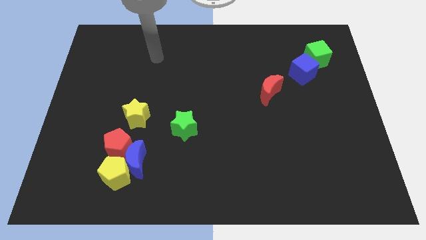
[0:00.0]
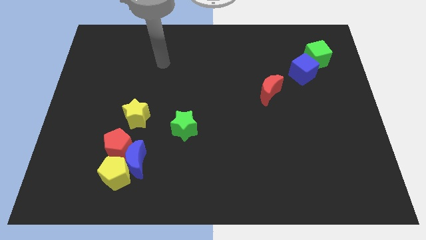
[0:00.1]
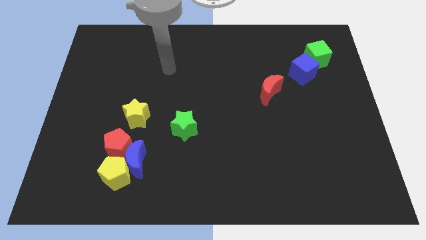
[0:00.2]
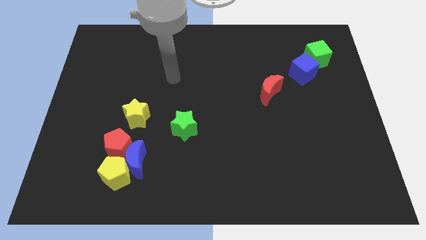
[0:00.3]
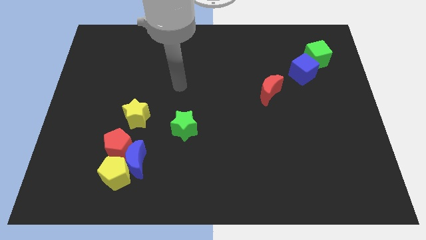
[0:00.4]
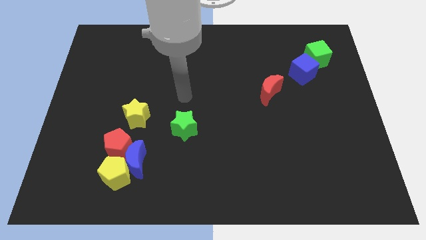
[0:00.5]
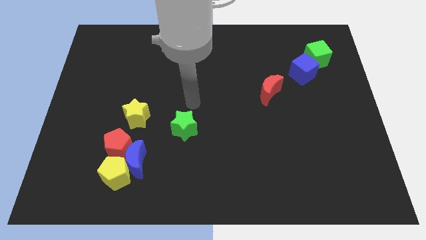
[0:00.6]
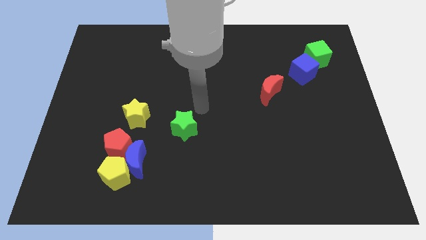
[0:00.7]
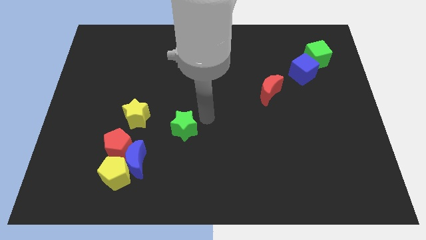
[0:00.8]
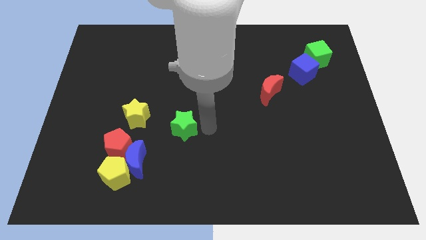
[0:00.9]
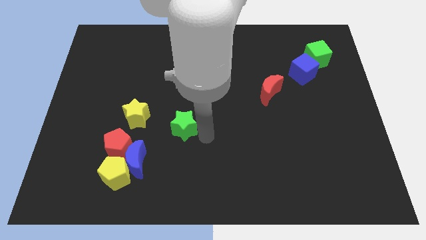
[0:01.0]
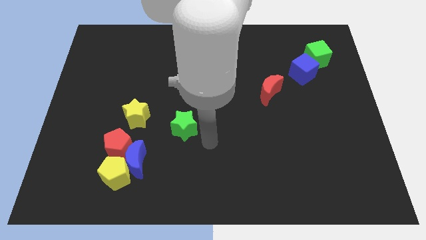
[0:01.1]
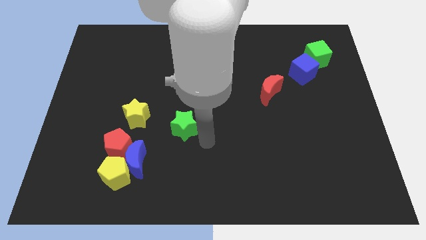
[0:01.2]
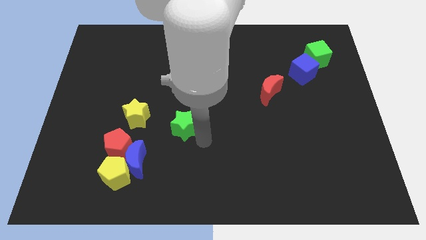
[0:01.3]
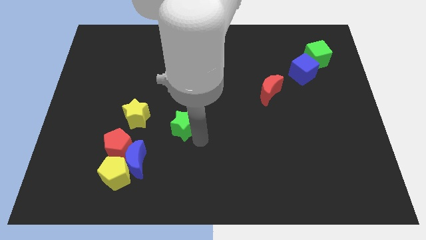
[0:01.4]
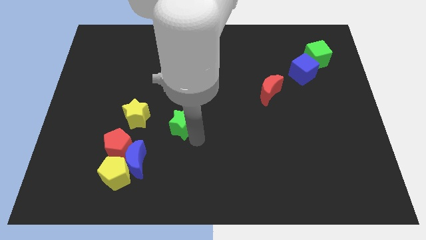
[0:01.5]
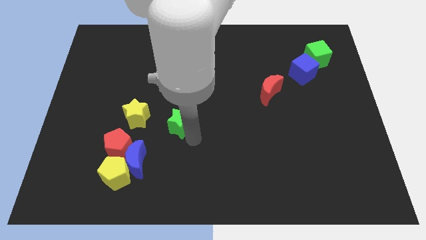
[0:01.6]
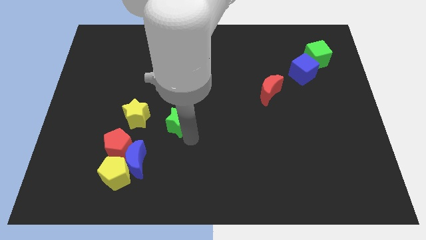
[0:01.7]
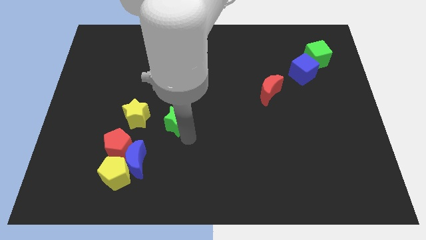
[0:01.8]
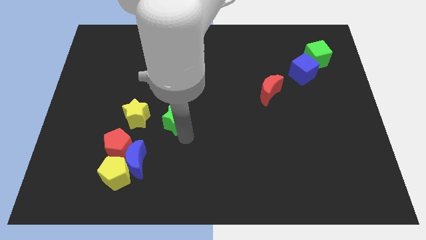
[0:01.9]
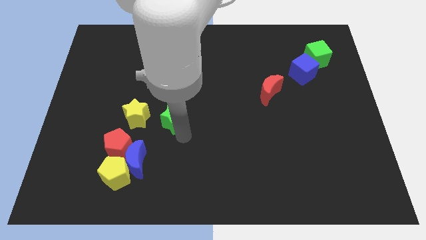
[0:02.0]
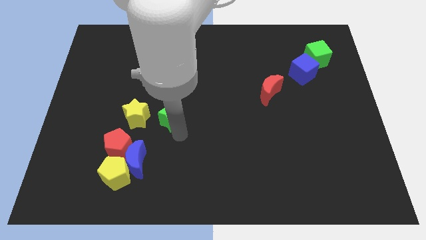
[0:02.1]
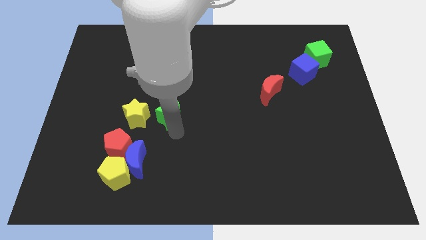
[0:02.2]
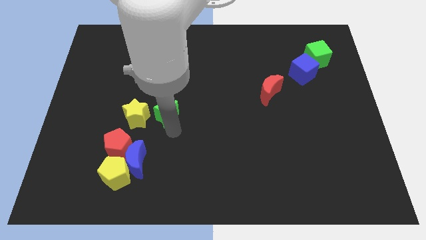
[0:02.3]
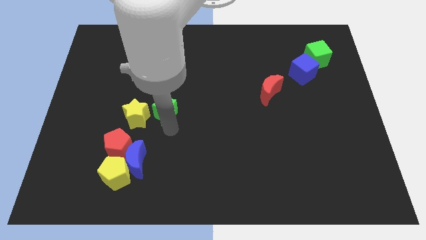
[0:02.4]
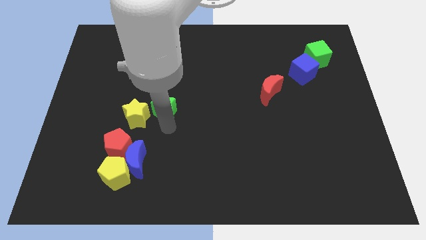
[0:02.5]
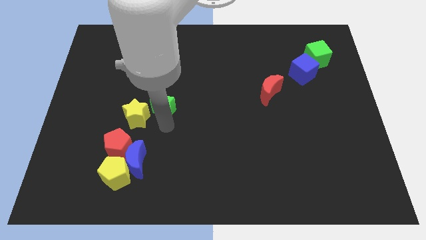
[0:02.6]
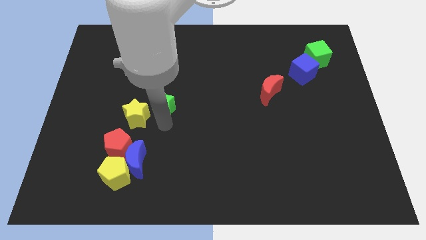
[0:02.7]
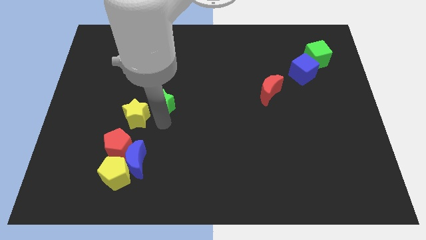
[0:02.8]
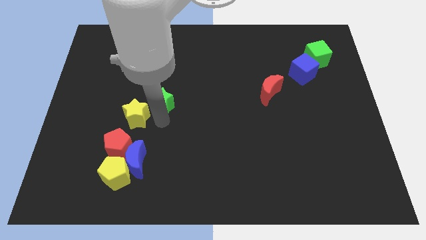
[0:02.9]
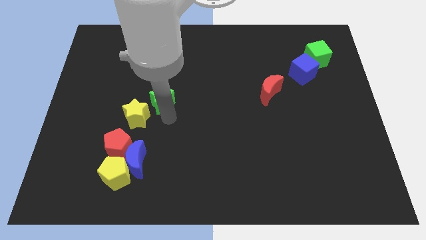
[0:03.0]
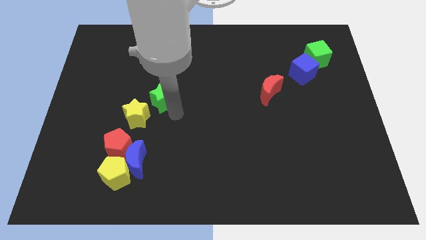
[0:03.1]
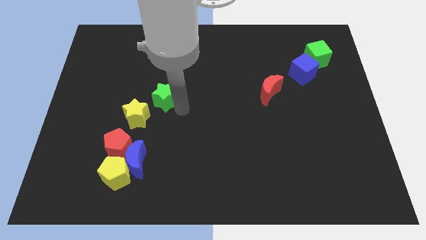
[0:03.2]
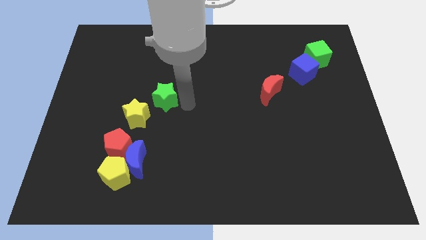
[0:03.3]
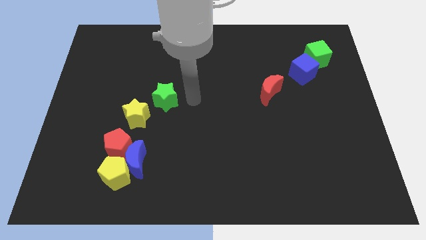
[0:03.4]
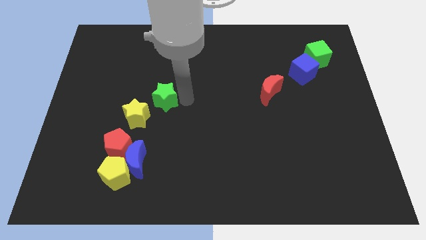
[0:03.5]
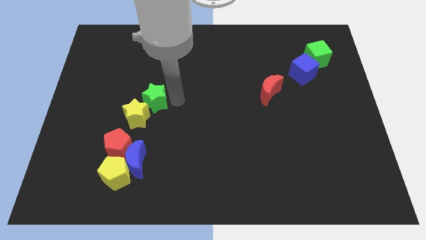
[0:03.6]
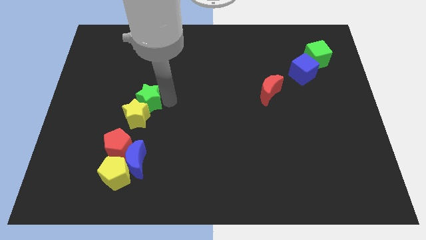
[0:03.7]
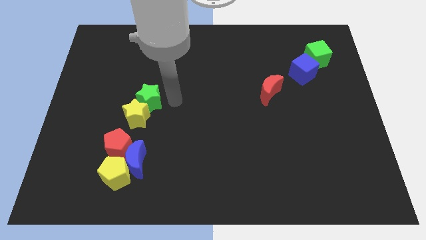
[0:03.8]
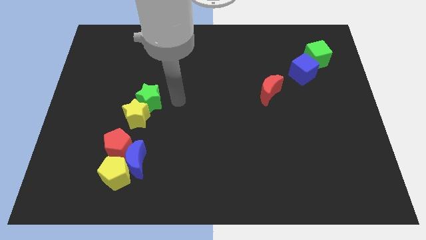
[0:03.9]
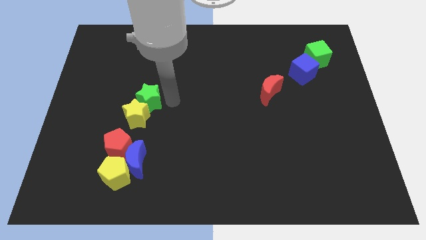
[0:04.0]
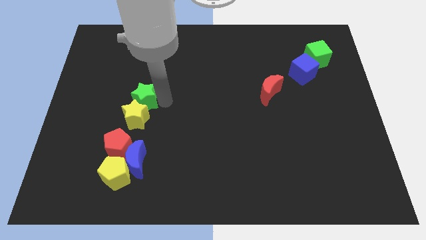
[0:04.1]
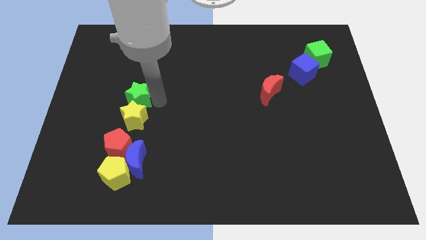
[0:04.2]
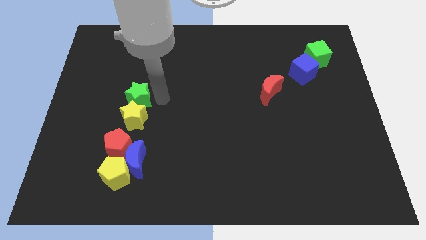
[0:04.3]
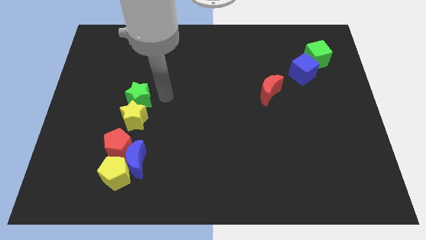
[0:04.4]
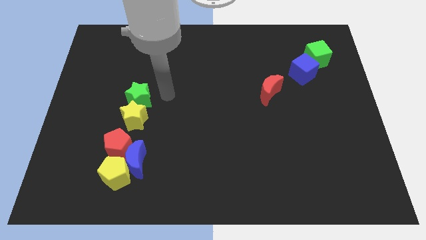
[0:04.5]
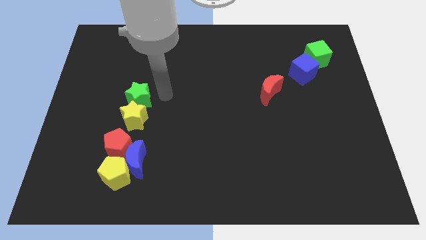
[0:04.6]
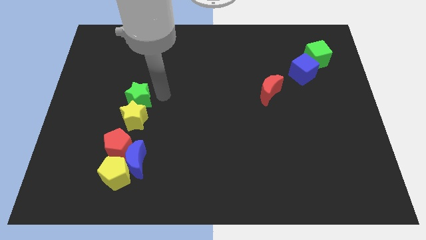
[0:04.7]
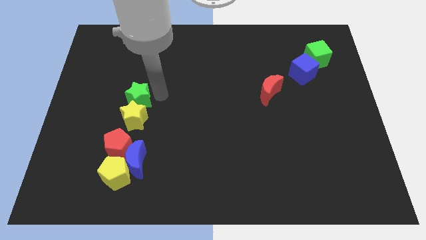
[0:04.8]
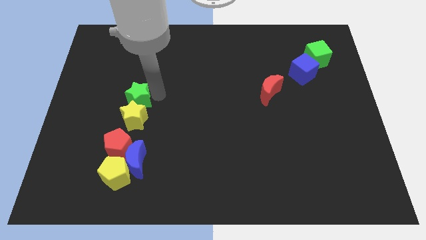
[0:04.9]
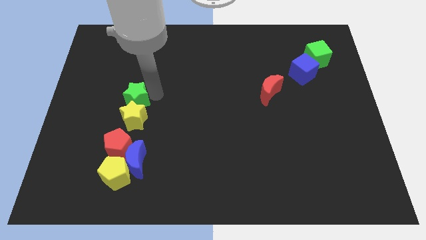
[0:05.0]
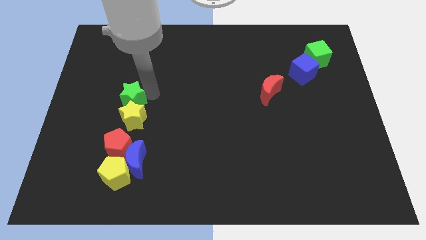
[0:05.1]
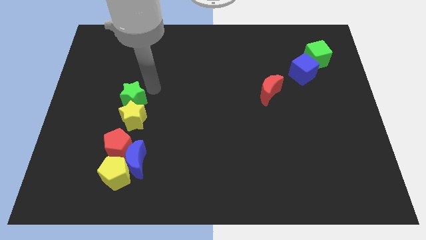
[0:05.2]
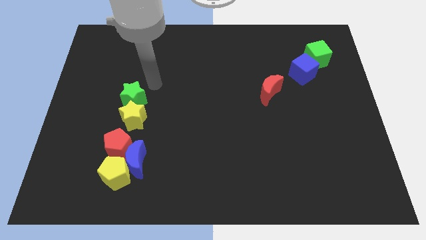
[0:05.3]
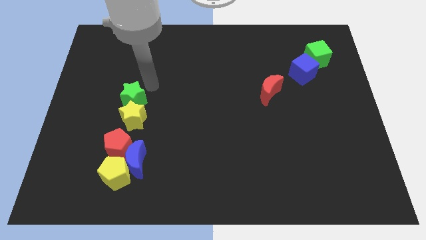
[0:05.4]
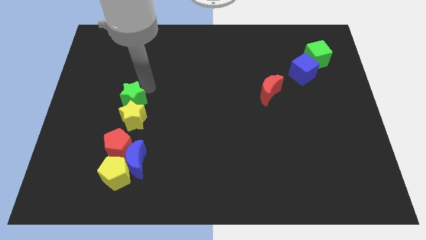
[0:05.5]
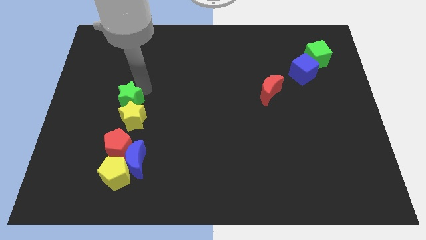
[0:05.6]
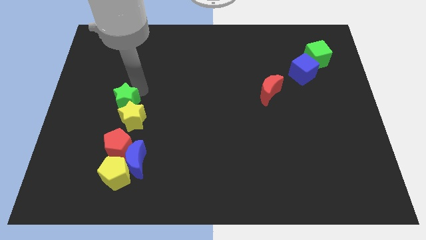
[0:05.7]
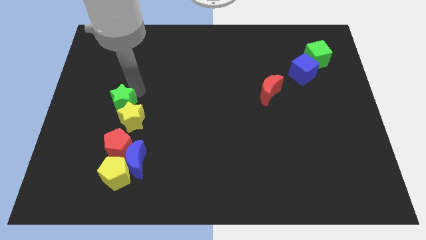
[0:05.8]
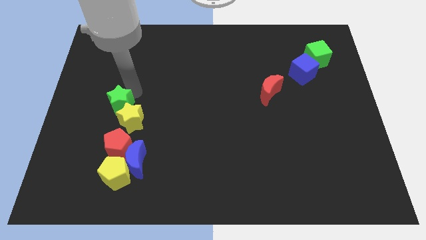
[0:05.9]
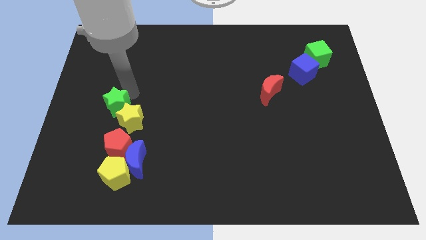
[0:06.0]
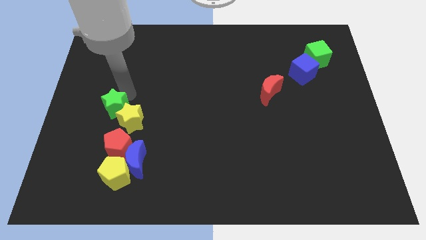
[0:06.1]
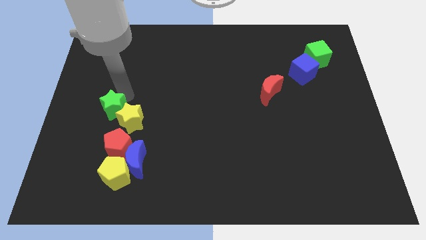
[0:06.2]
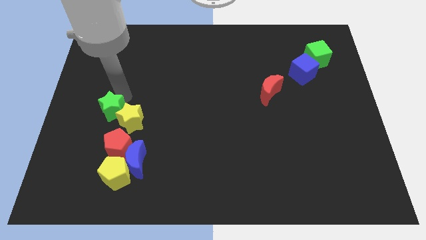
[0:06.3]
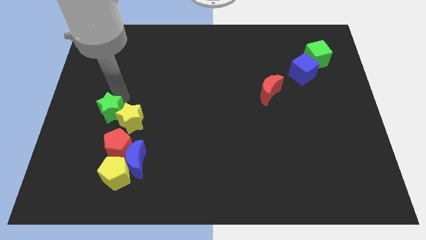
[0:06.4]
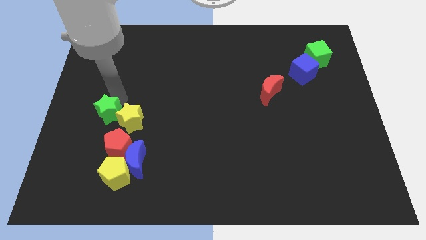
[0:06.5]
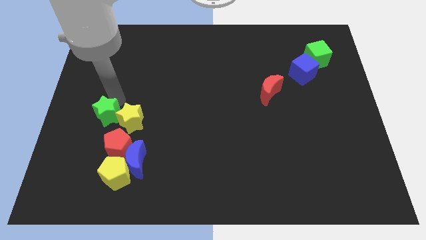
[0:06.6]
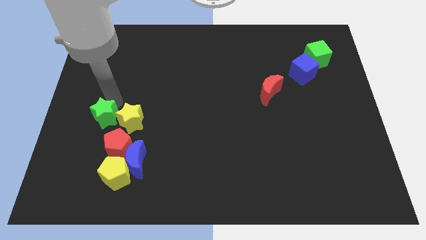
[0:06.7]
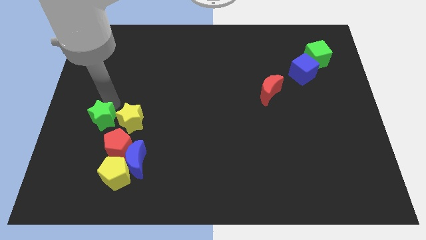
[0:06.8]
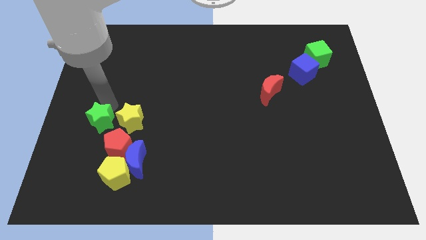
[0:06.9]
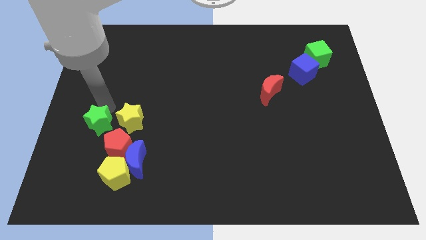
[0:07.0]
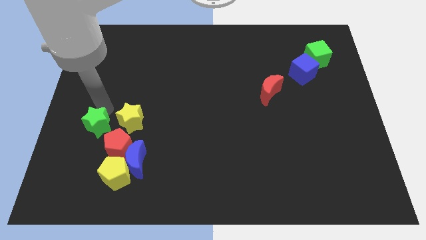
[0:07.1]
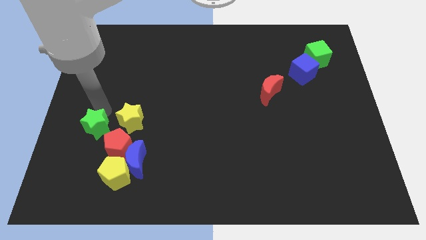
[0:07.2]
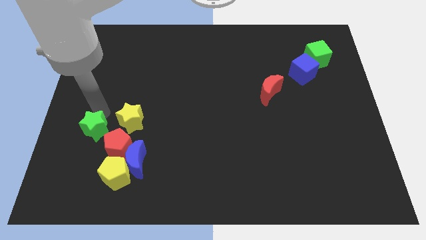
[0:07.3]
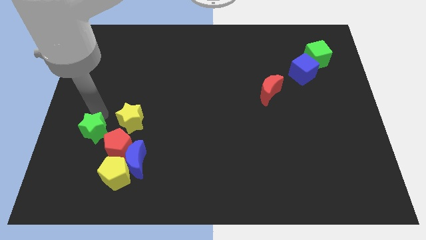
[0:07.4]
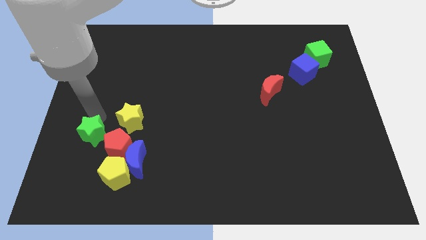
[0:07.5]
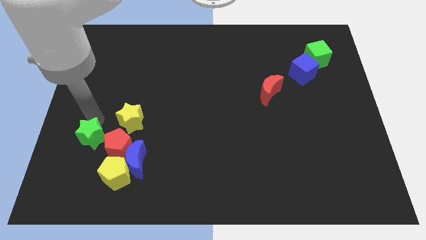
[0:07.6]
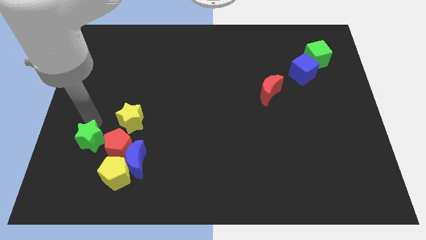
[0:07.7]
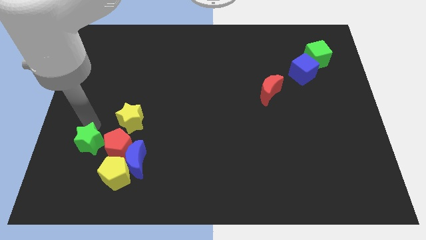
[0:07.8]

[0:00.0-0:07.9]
slide the green star just left of the blue moon

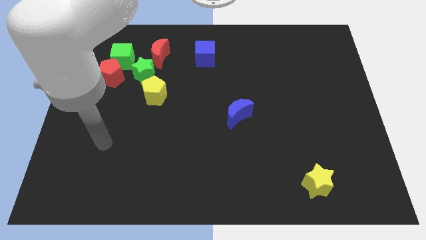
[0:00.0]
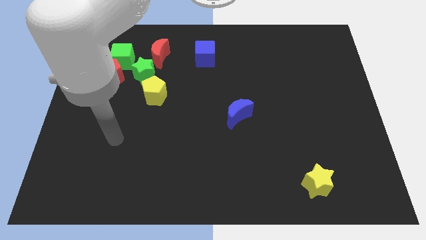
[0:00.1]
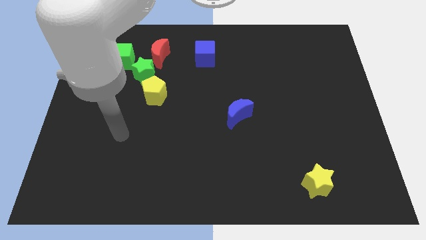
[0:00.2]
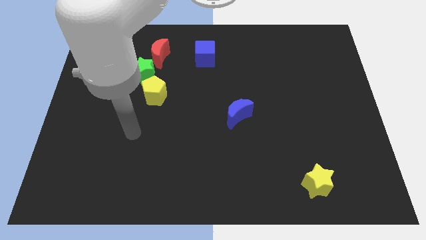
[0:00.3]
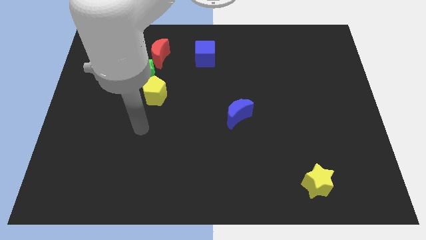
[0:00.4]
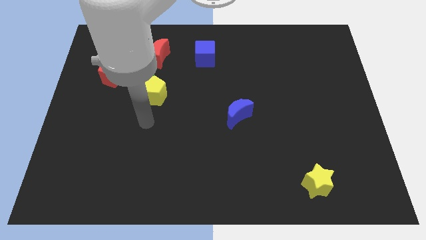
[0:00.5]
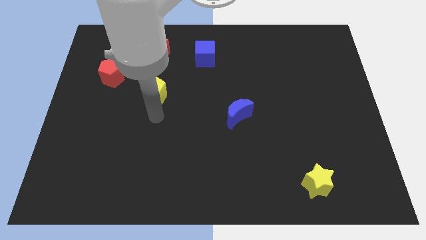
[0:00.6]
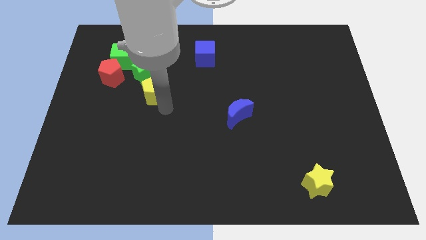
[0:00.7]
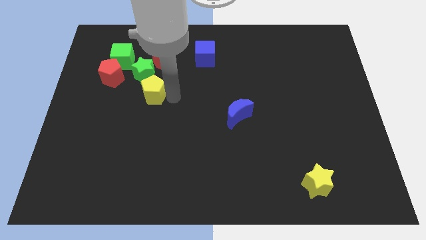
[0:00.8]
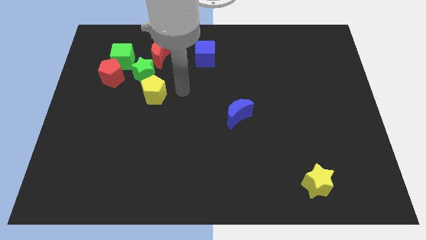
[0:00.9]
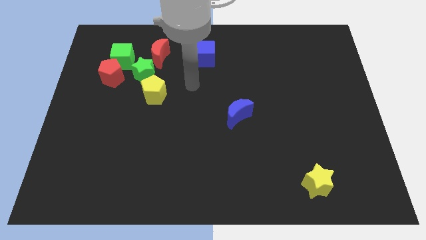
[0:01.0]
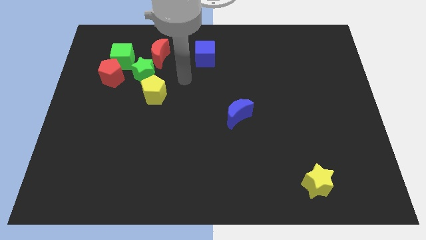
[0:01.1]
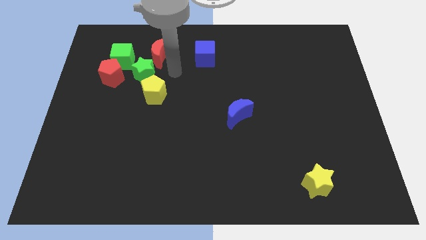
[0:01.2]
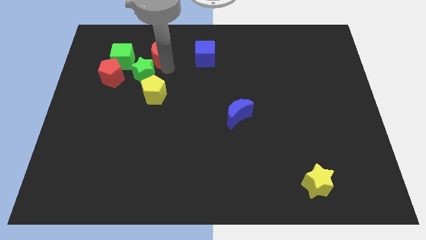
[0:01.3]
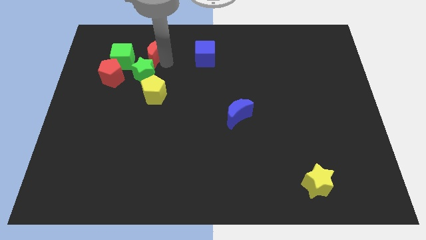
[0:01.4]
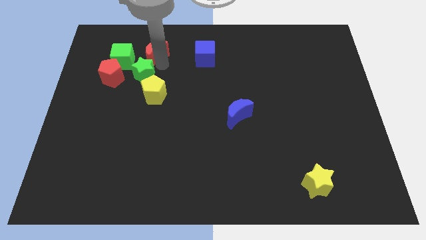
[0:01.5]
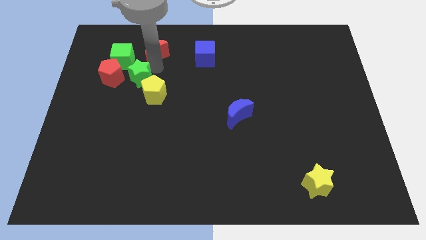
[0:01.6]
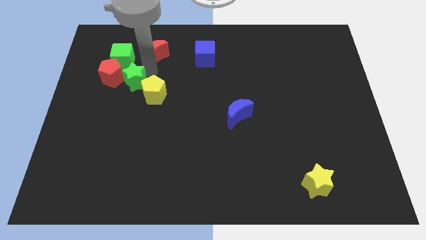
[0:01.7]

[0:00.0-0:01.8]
put the green star to the left side of the yellow pentagon
